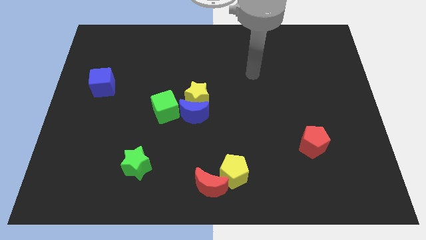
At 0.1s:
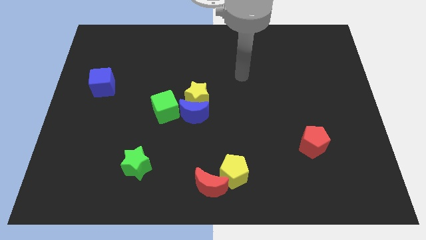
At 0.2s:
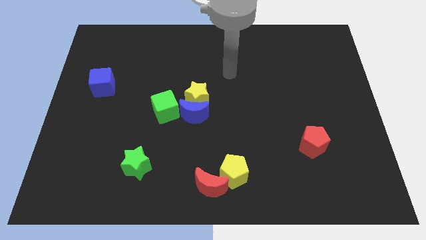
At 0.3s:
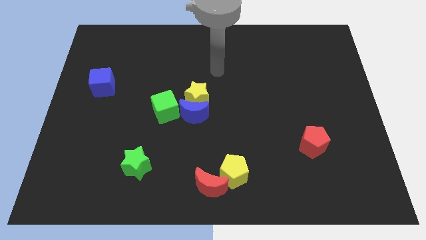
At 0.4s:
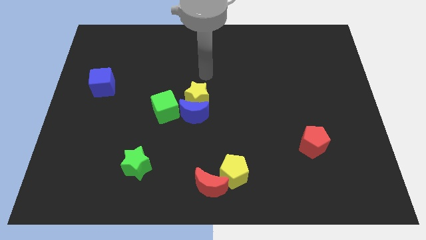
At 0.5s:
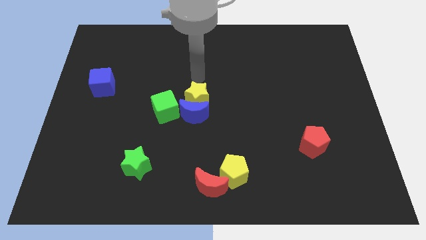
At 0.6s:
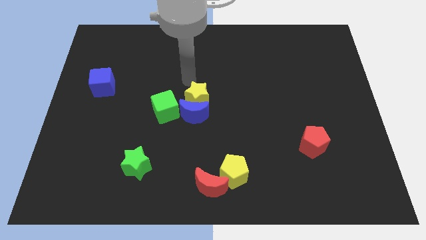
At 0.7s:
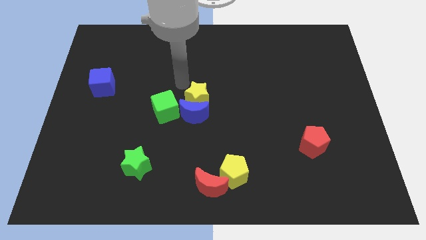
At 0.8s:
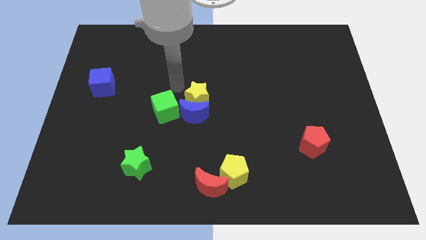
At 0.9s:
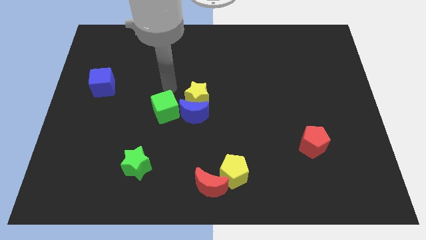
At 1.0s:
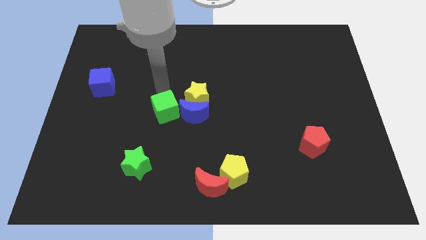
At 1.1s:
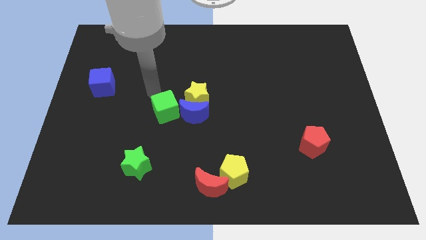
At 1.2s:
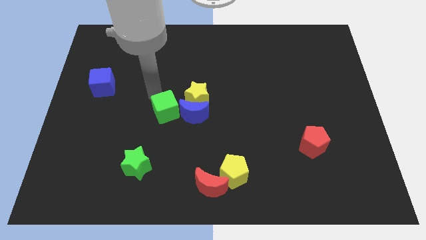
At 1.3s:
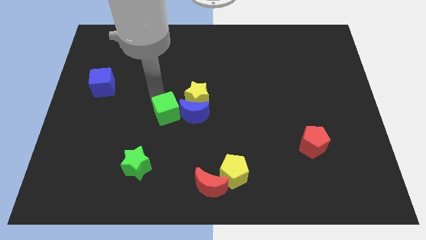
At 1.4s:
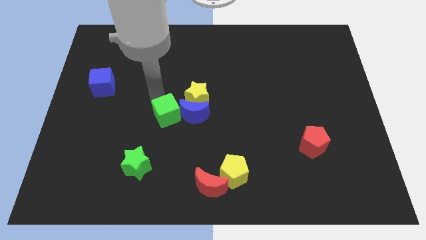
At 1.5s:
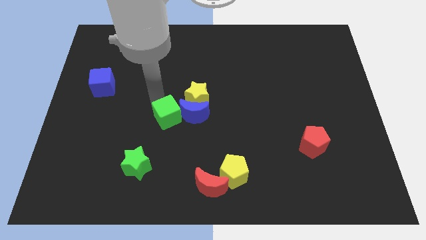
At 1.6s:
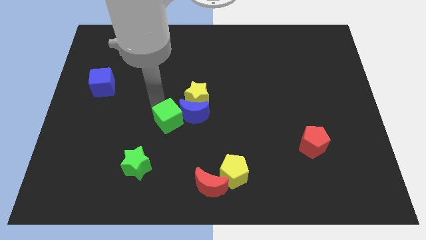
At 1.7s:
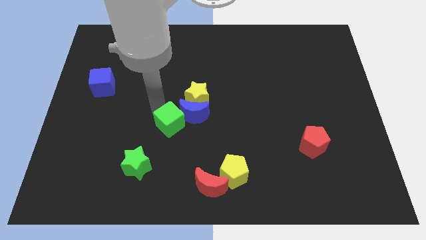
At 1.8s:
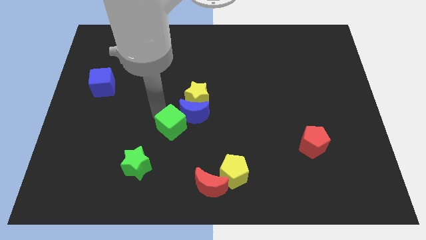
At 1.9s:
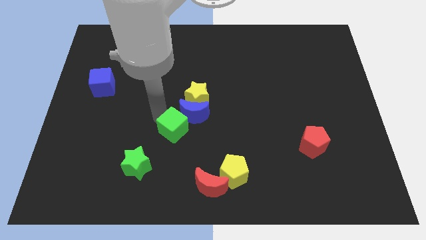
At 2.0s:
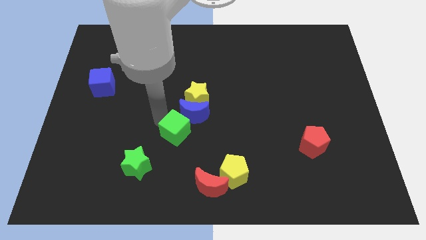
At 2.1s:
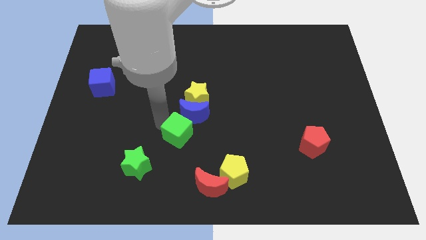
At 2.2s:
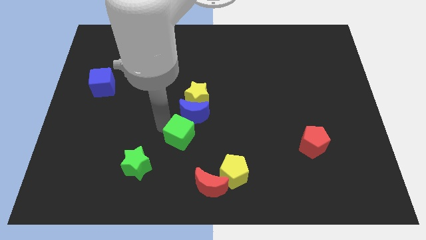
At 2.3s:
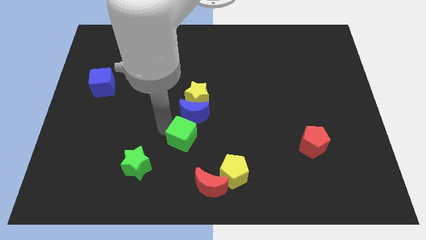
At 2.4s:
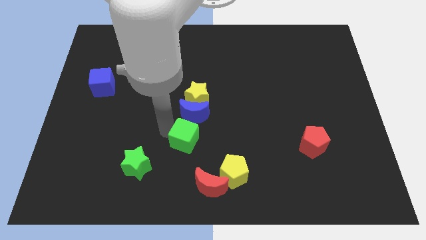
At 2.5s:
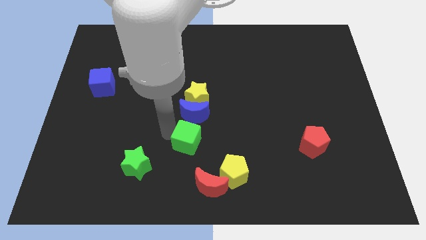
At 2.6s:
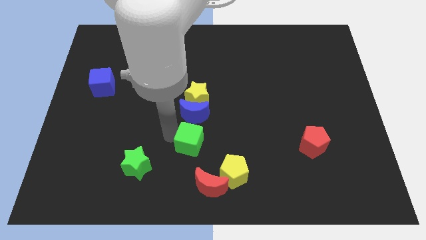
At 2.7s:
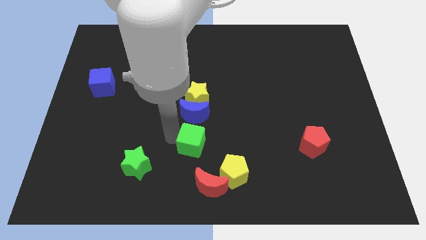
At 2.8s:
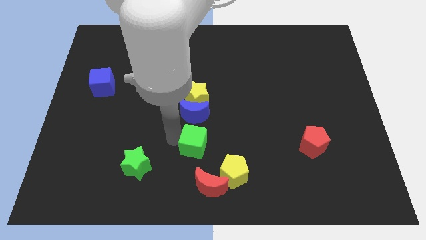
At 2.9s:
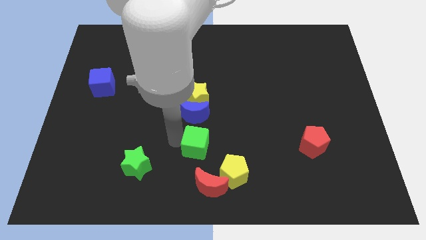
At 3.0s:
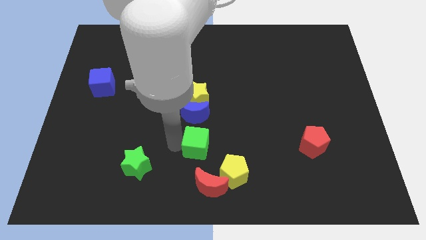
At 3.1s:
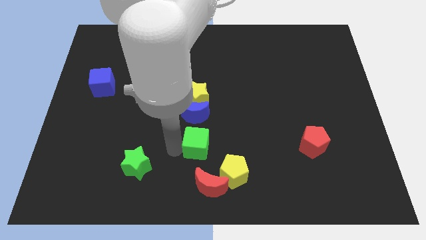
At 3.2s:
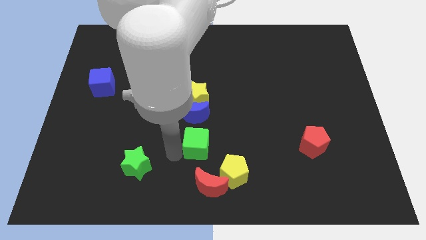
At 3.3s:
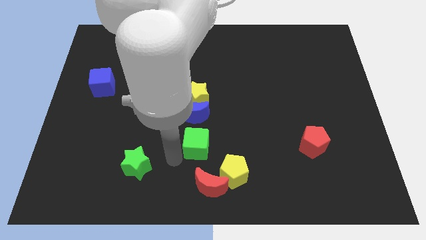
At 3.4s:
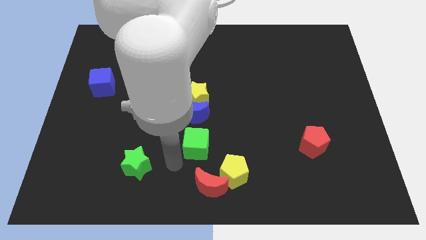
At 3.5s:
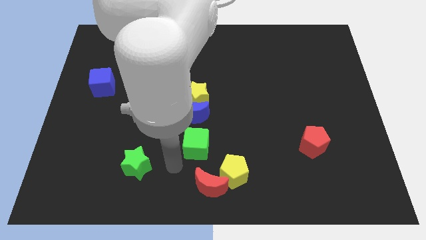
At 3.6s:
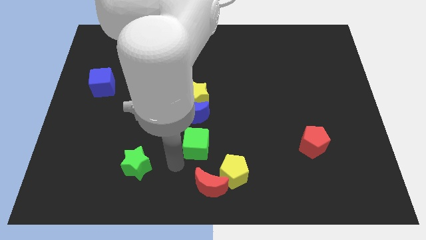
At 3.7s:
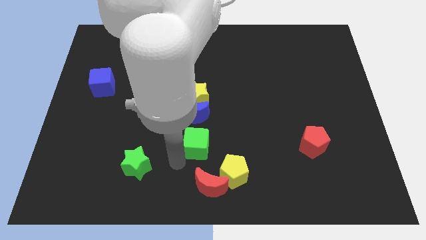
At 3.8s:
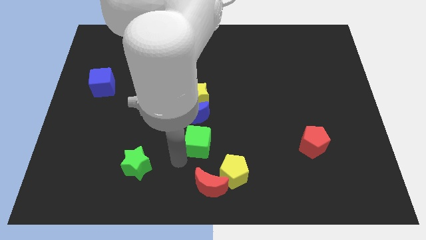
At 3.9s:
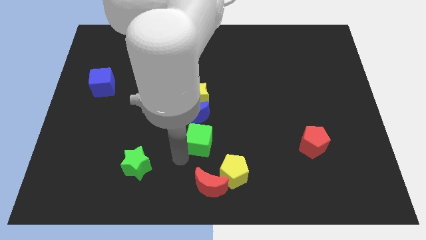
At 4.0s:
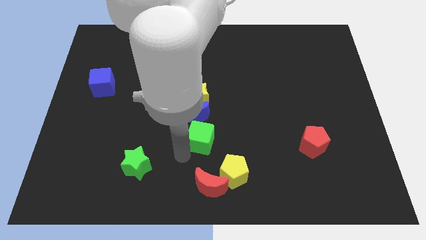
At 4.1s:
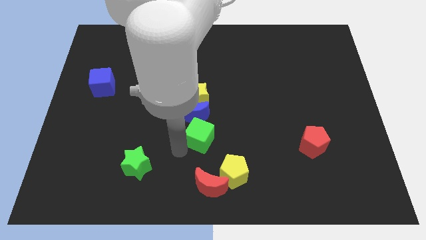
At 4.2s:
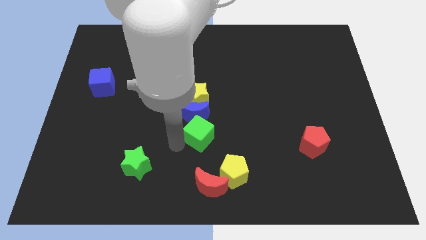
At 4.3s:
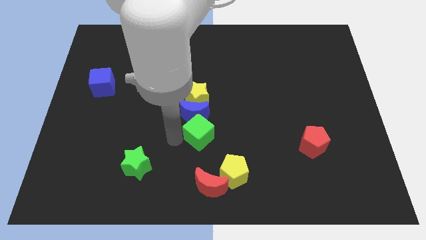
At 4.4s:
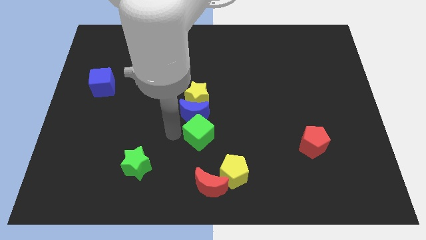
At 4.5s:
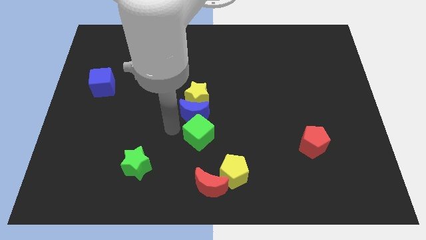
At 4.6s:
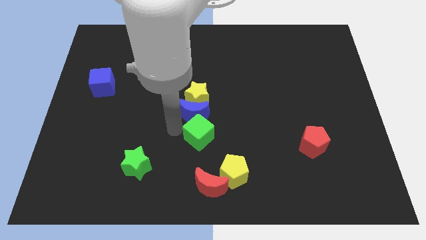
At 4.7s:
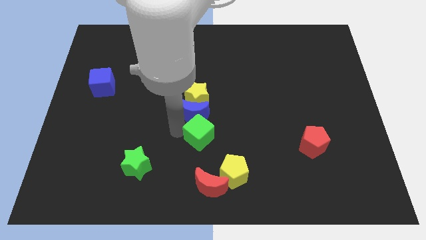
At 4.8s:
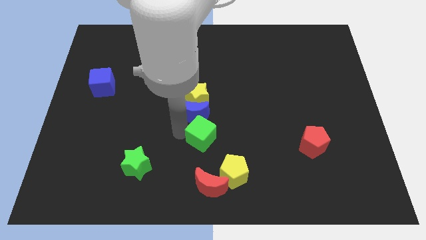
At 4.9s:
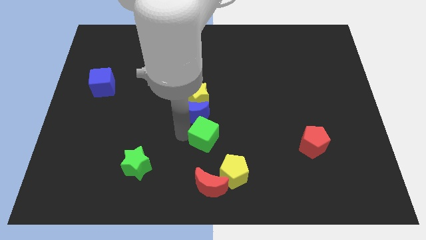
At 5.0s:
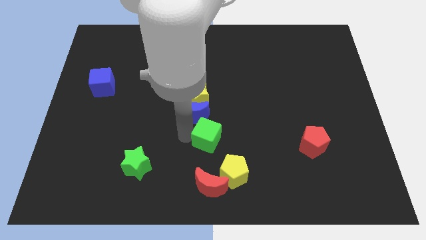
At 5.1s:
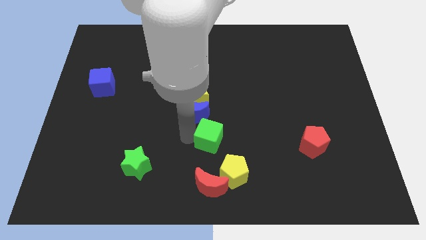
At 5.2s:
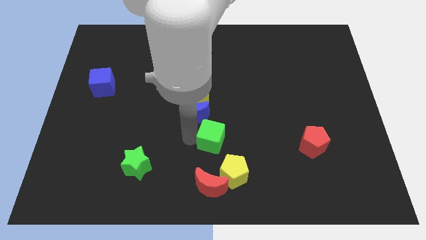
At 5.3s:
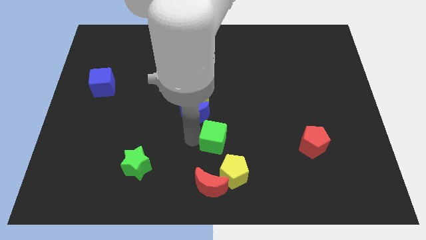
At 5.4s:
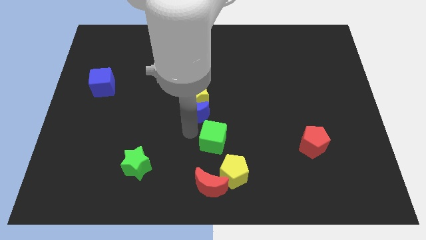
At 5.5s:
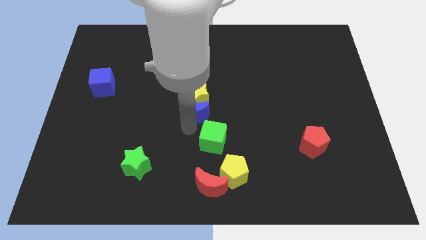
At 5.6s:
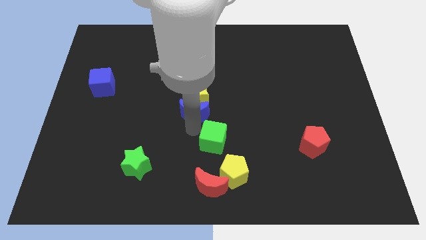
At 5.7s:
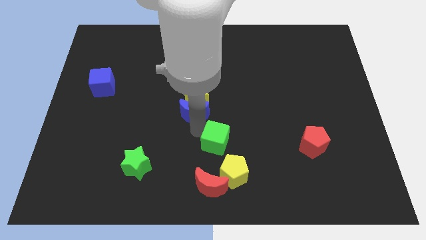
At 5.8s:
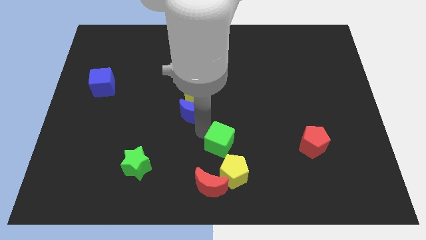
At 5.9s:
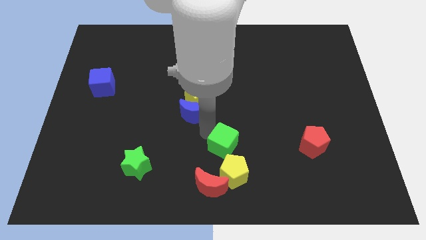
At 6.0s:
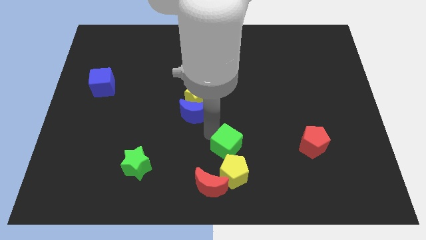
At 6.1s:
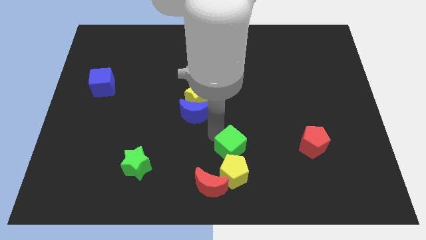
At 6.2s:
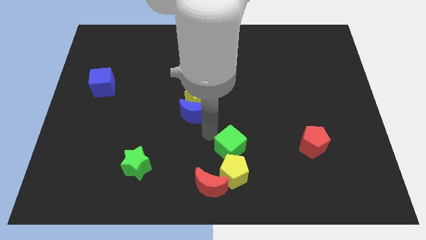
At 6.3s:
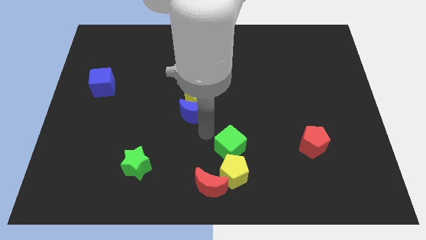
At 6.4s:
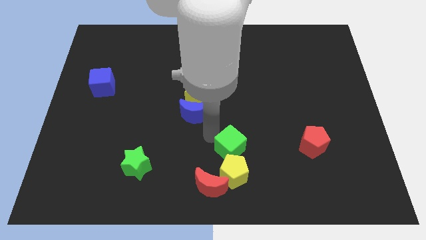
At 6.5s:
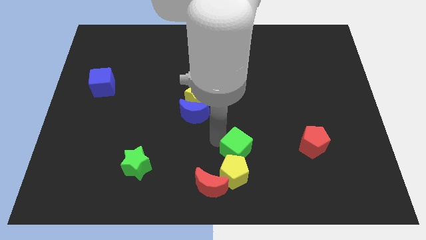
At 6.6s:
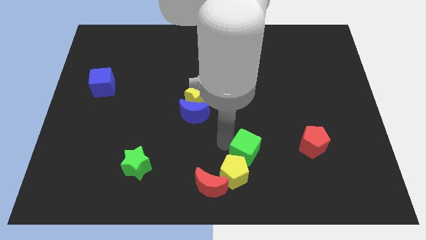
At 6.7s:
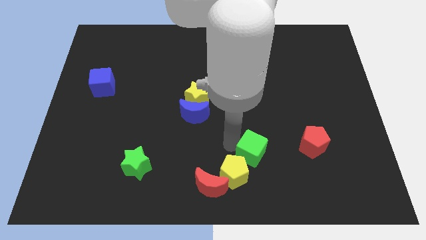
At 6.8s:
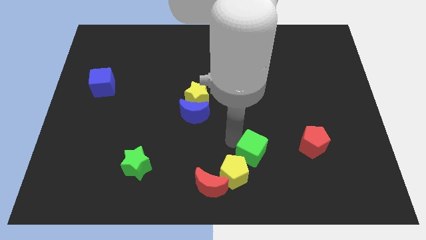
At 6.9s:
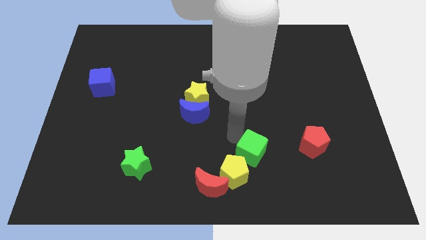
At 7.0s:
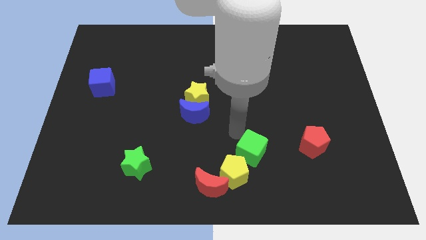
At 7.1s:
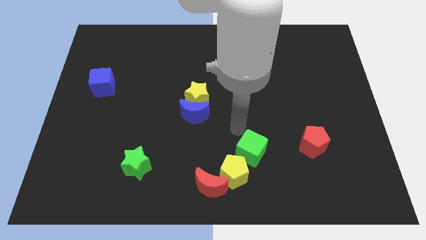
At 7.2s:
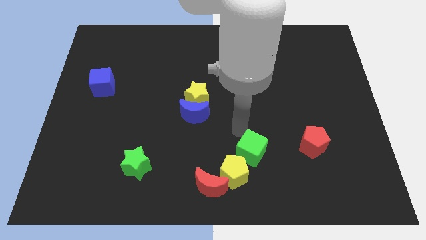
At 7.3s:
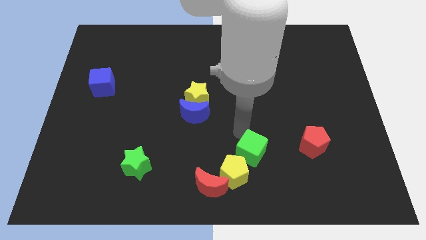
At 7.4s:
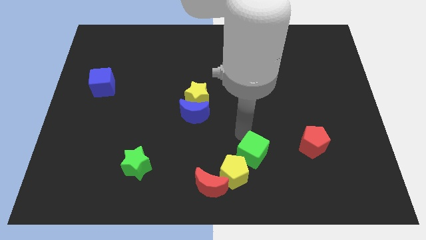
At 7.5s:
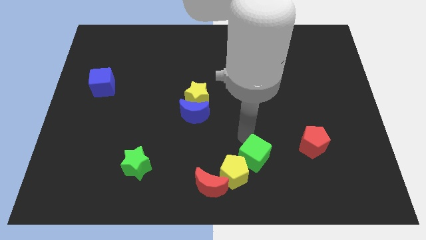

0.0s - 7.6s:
push the green cube just right of the yellow pentagon
